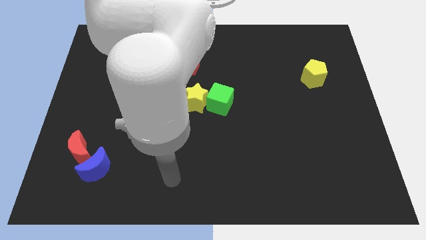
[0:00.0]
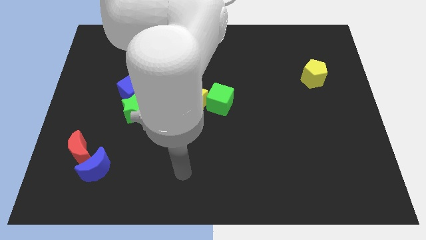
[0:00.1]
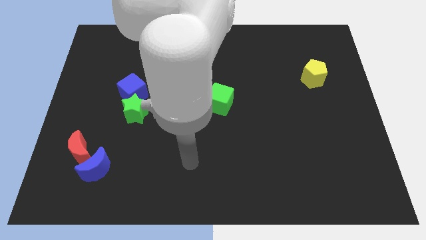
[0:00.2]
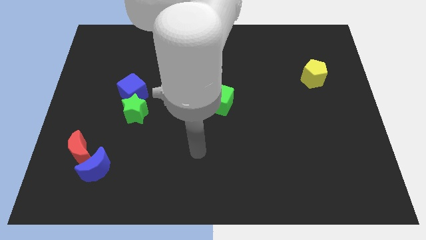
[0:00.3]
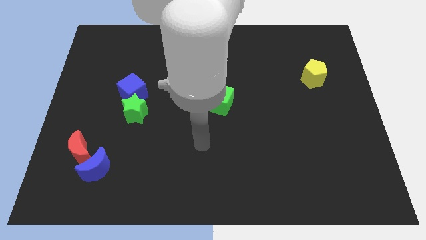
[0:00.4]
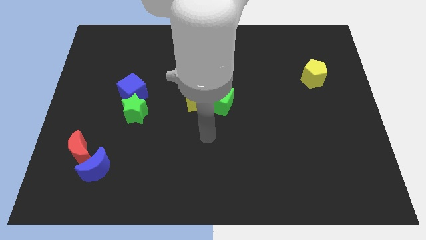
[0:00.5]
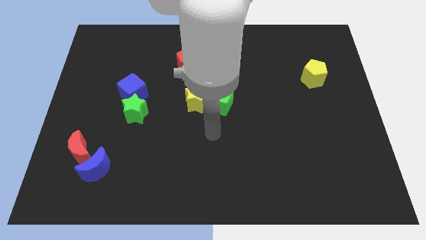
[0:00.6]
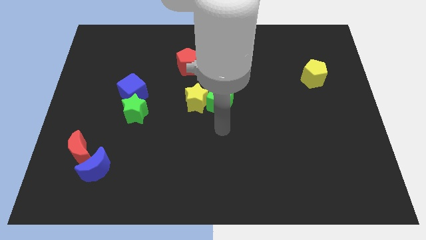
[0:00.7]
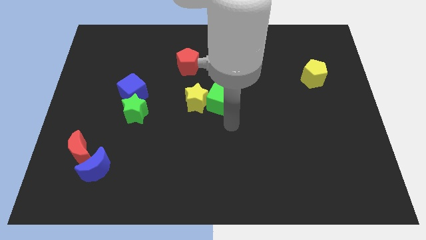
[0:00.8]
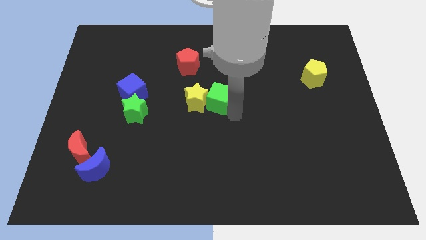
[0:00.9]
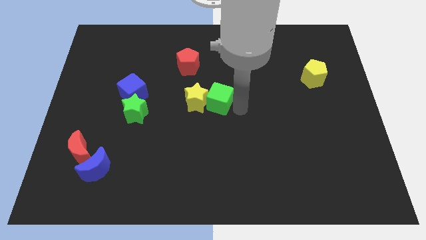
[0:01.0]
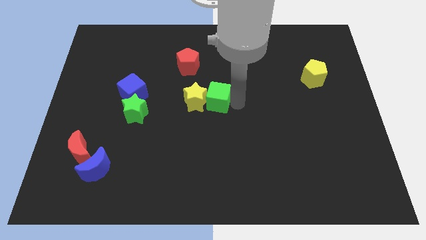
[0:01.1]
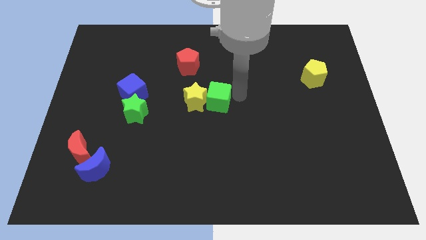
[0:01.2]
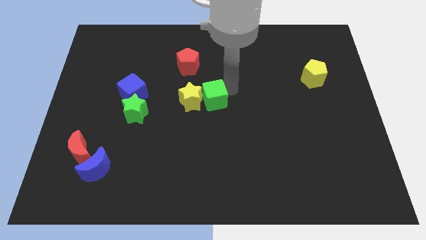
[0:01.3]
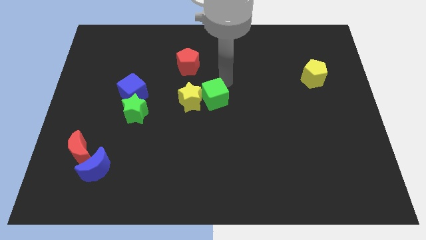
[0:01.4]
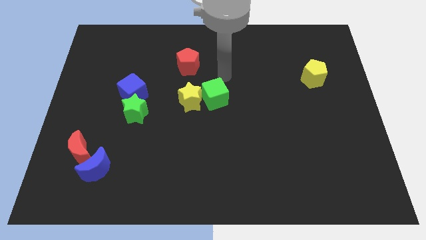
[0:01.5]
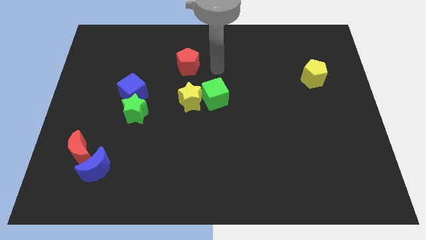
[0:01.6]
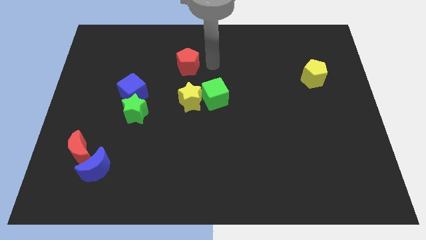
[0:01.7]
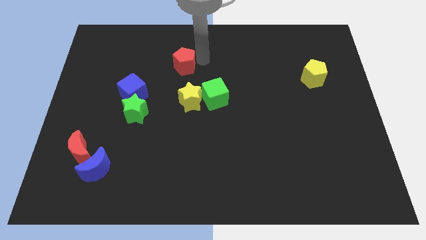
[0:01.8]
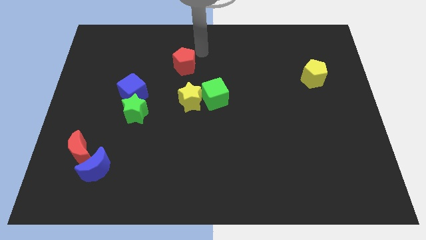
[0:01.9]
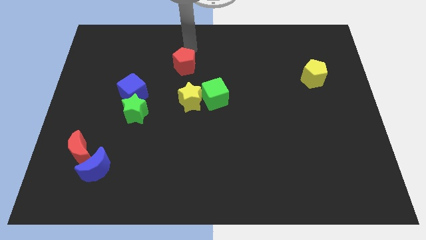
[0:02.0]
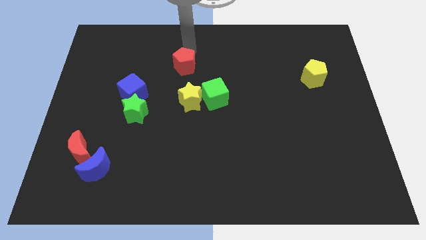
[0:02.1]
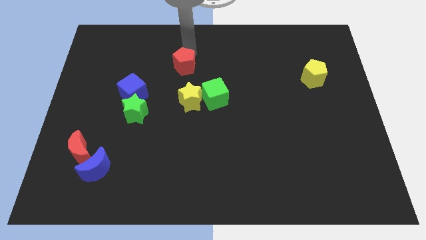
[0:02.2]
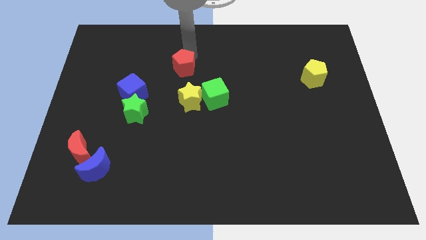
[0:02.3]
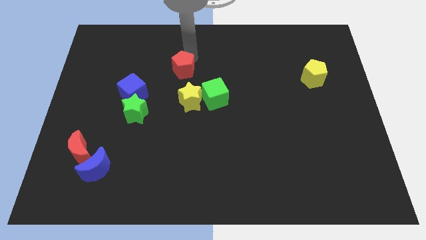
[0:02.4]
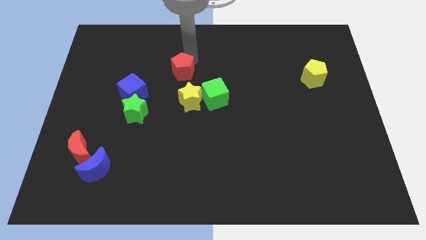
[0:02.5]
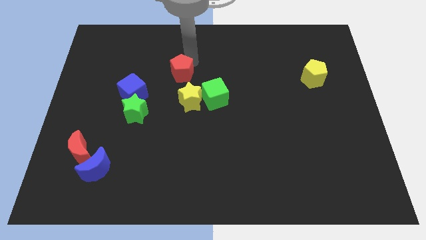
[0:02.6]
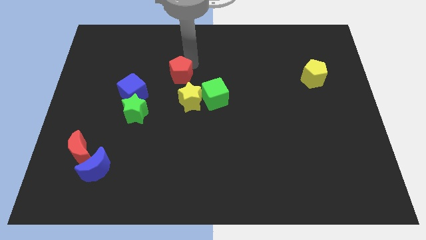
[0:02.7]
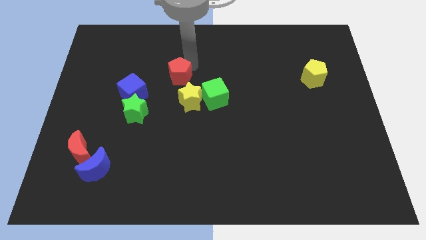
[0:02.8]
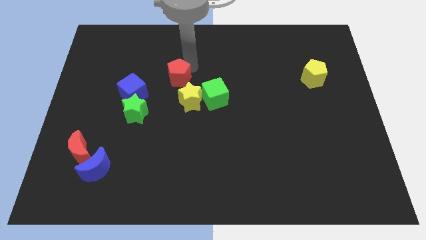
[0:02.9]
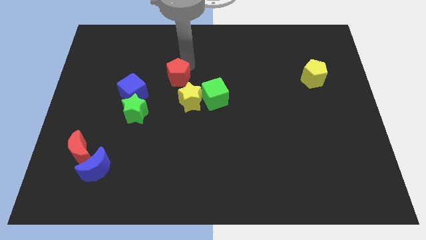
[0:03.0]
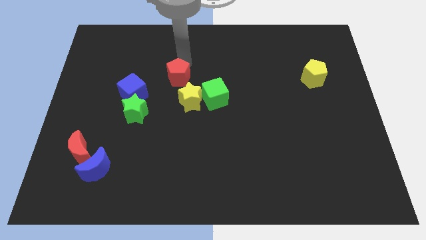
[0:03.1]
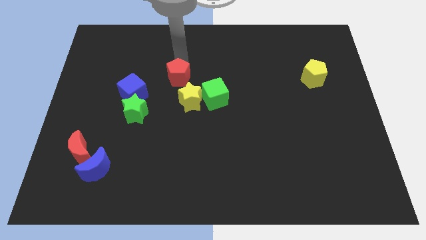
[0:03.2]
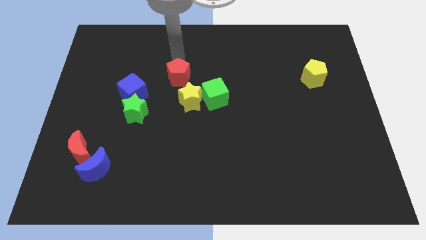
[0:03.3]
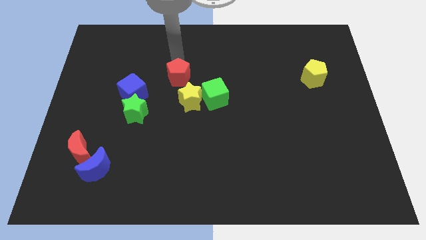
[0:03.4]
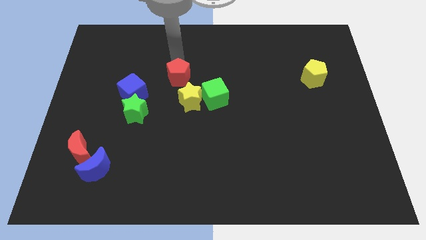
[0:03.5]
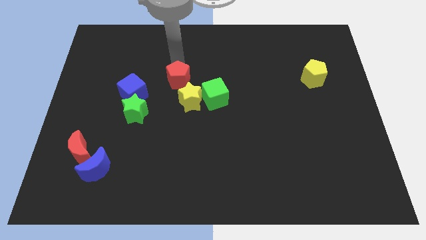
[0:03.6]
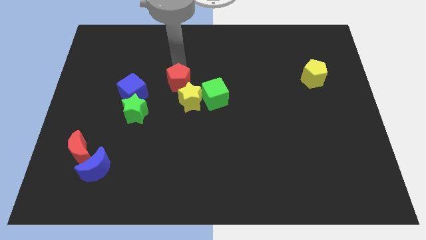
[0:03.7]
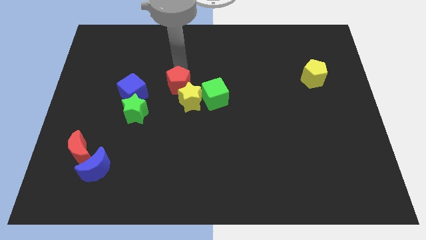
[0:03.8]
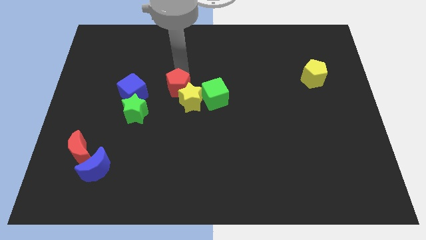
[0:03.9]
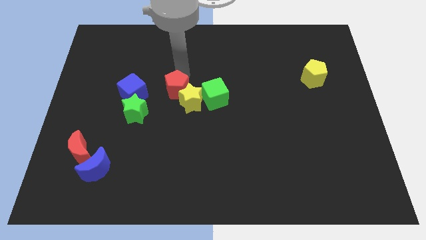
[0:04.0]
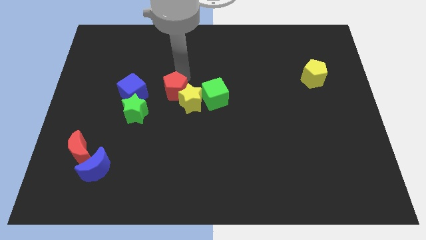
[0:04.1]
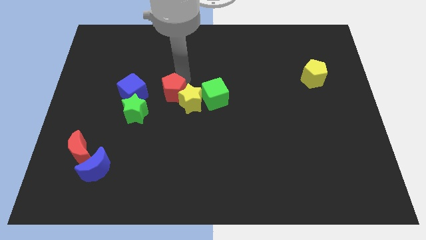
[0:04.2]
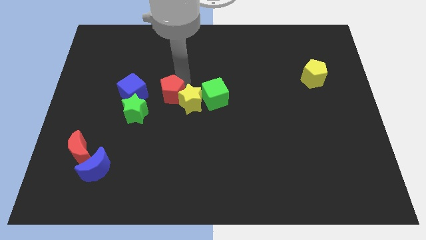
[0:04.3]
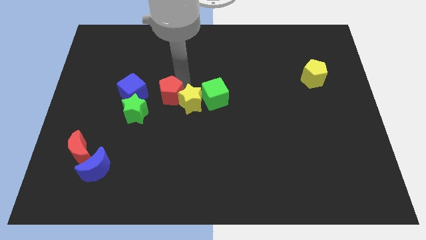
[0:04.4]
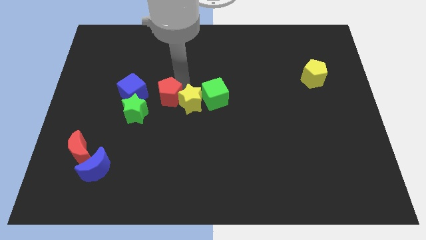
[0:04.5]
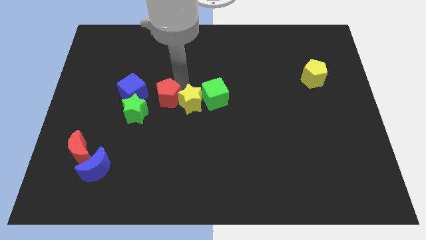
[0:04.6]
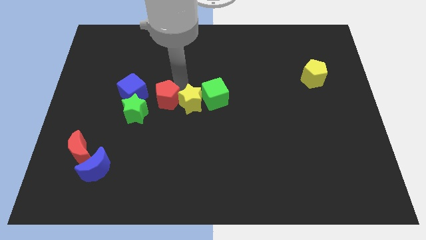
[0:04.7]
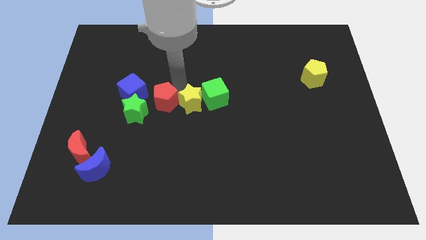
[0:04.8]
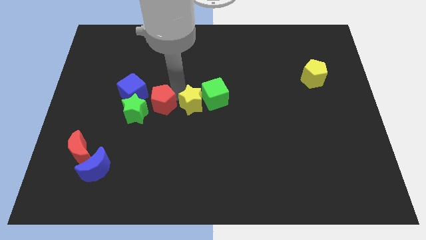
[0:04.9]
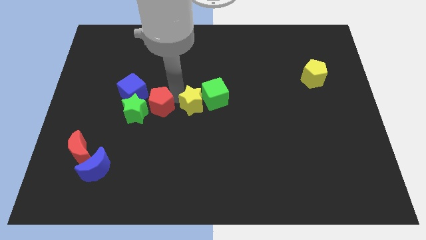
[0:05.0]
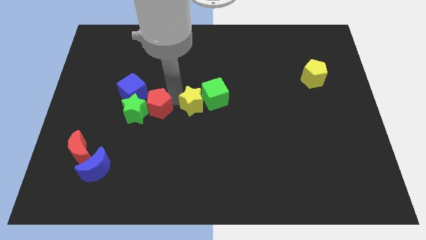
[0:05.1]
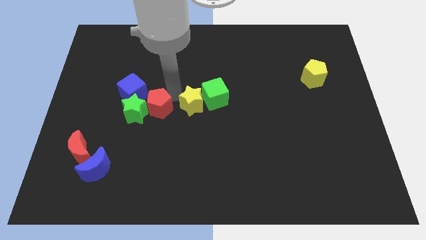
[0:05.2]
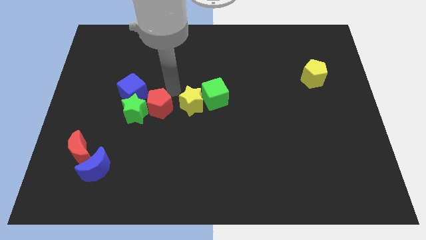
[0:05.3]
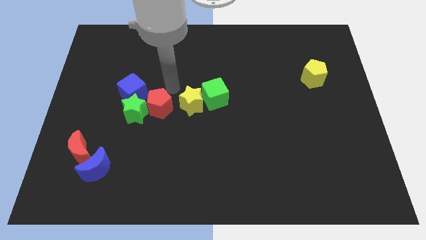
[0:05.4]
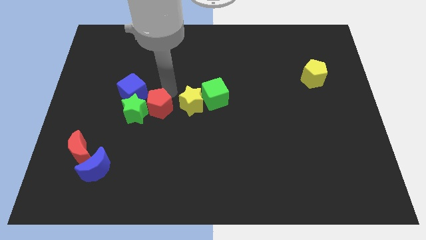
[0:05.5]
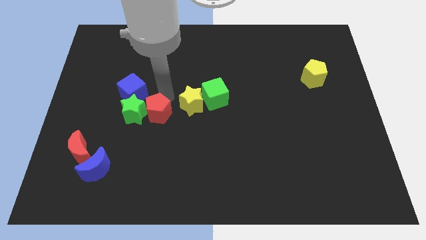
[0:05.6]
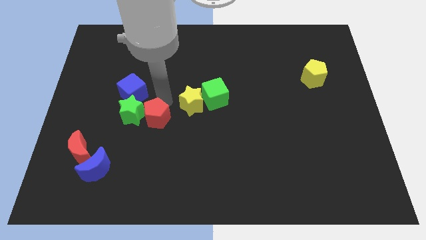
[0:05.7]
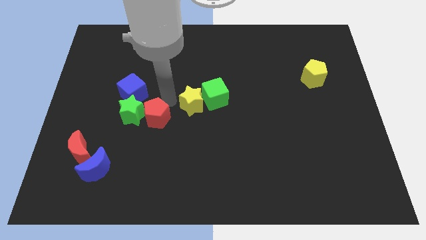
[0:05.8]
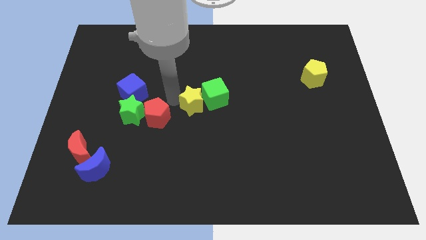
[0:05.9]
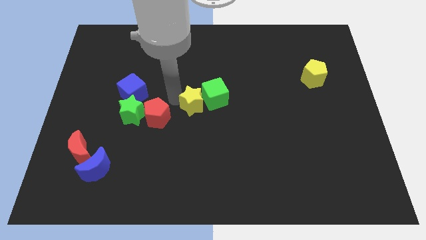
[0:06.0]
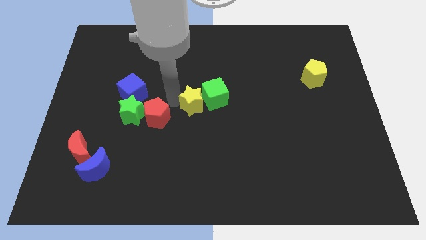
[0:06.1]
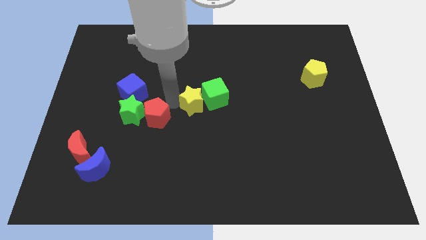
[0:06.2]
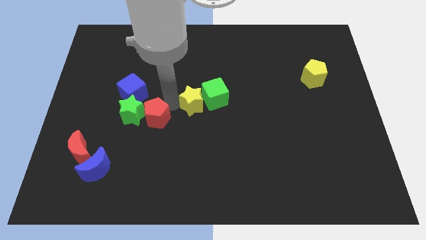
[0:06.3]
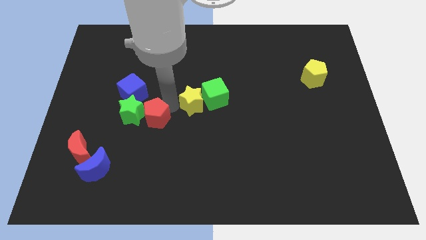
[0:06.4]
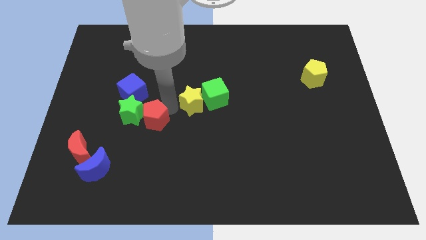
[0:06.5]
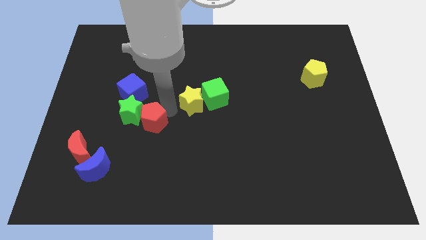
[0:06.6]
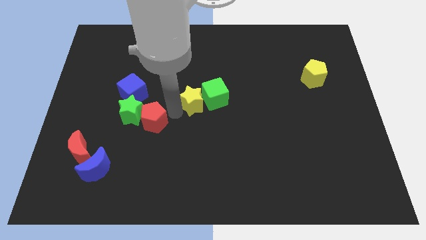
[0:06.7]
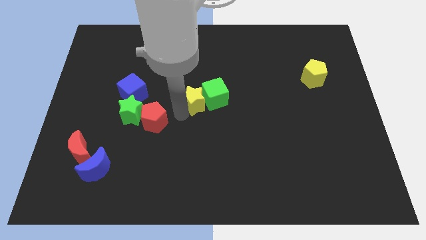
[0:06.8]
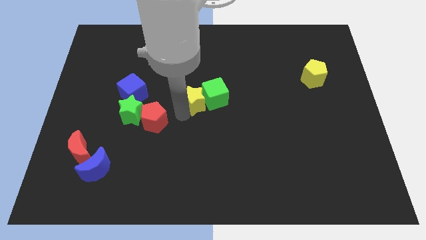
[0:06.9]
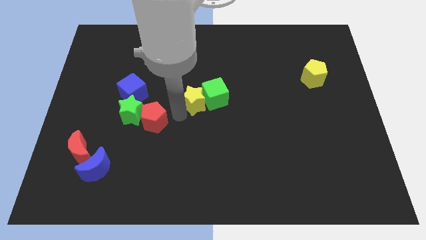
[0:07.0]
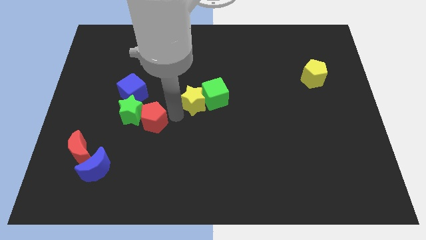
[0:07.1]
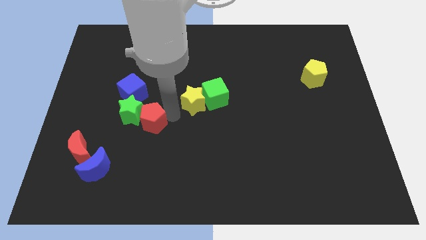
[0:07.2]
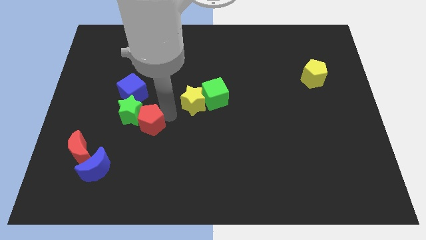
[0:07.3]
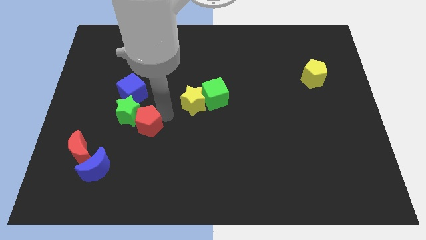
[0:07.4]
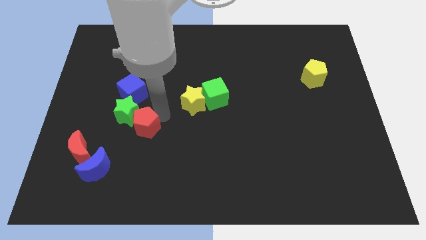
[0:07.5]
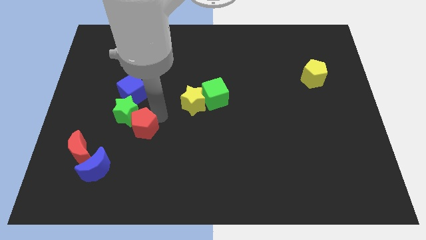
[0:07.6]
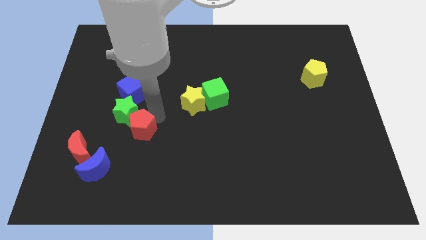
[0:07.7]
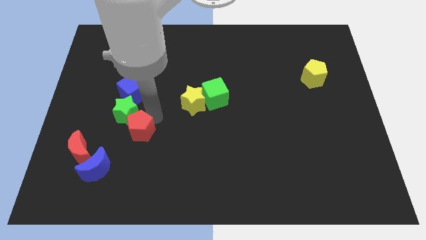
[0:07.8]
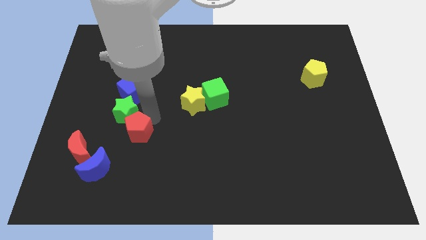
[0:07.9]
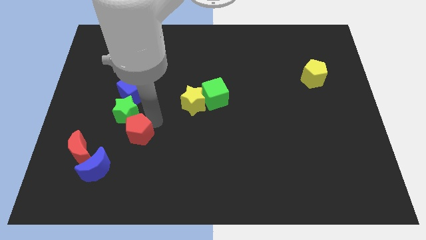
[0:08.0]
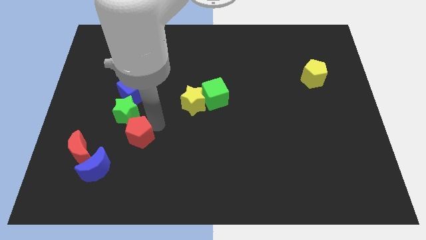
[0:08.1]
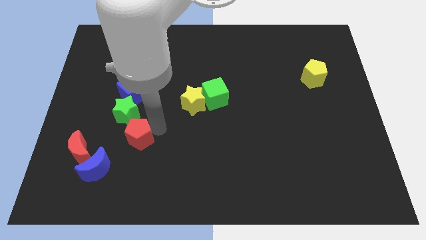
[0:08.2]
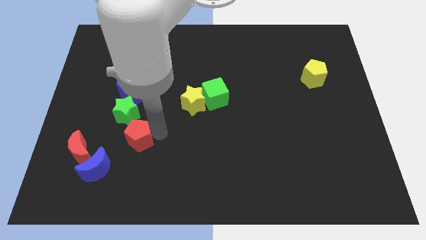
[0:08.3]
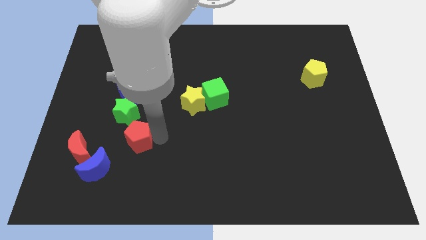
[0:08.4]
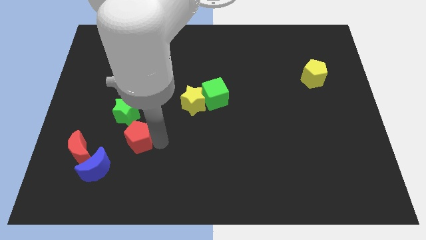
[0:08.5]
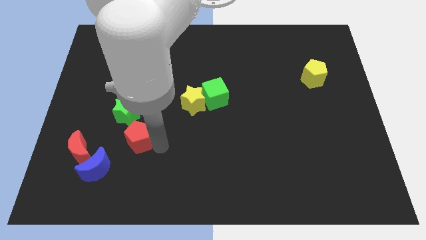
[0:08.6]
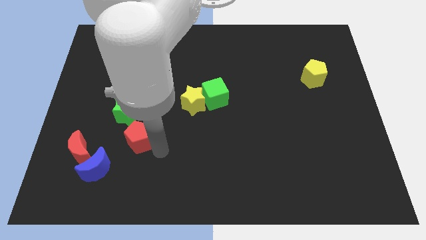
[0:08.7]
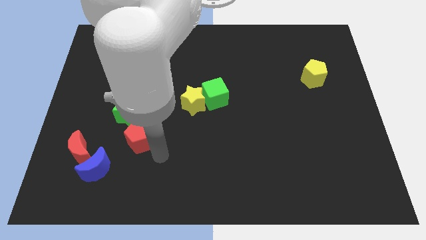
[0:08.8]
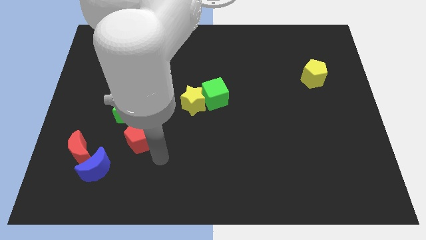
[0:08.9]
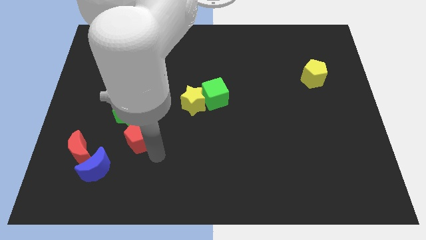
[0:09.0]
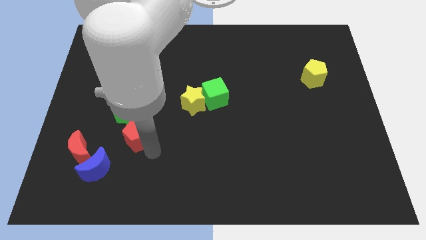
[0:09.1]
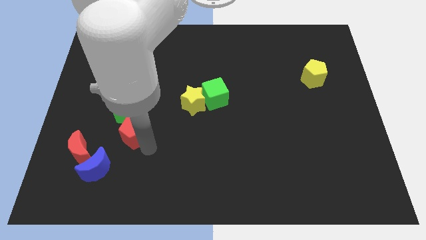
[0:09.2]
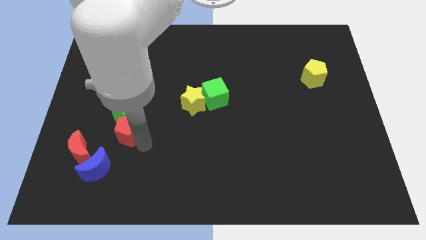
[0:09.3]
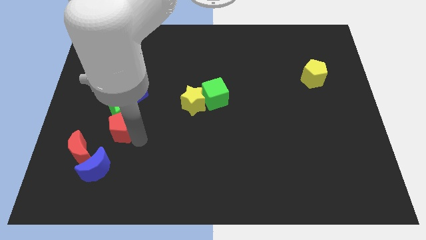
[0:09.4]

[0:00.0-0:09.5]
move the red pentagon to the top side of the blue moon
